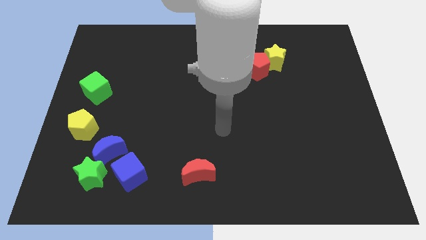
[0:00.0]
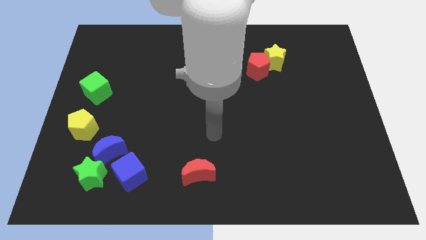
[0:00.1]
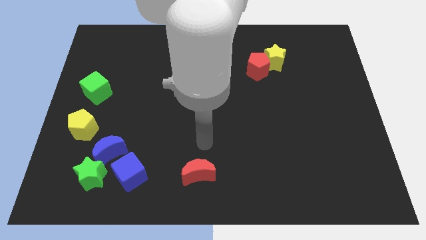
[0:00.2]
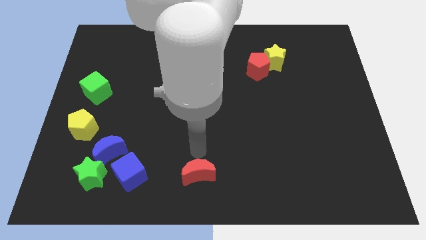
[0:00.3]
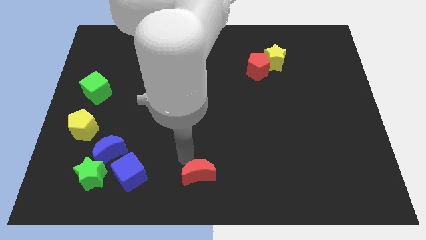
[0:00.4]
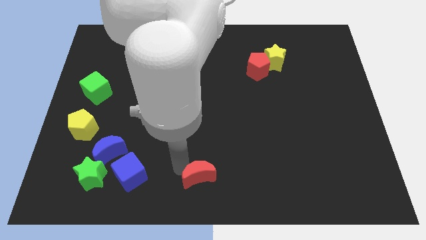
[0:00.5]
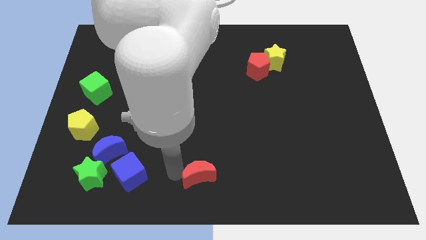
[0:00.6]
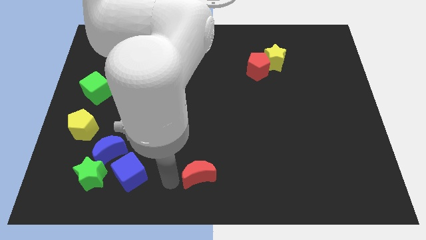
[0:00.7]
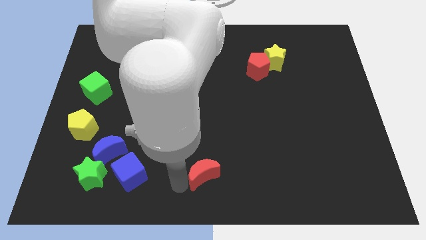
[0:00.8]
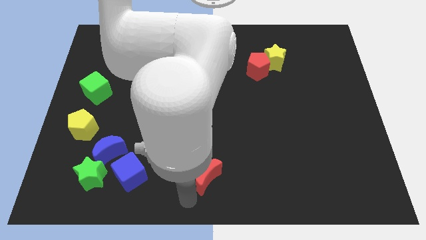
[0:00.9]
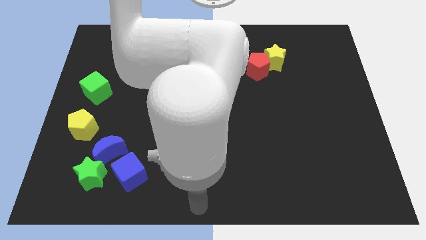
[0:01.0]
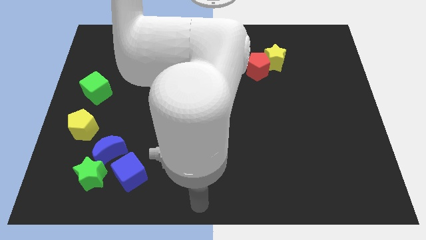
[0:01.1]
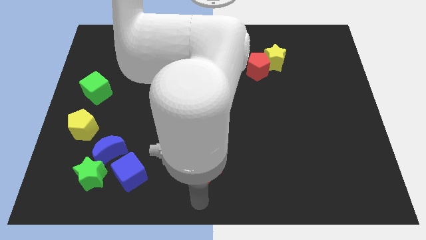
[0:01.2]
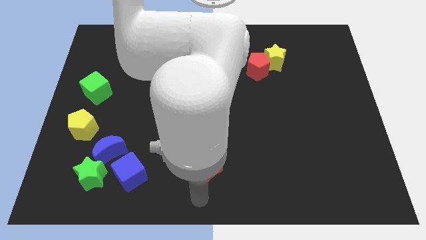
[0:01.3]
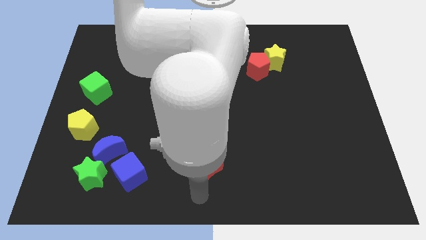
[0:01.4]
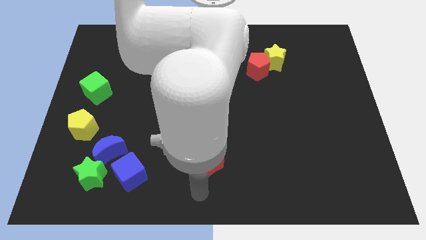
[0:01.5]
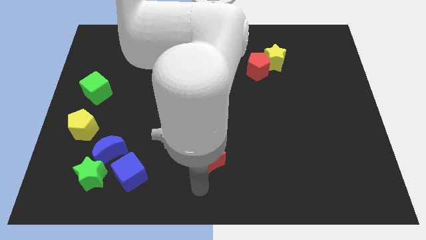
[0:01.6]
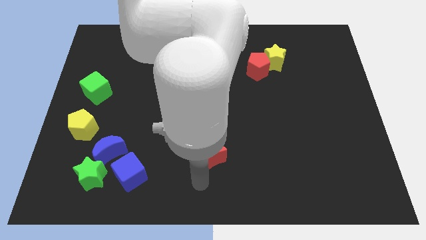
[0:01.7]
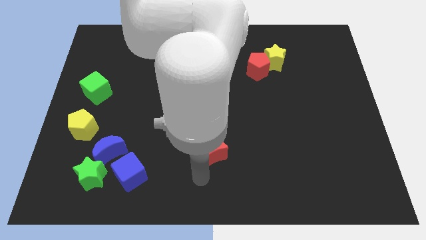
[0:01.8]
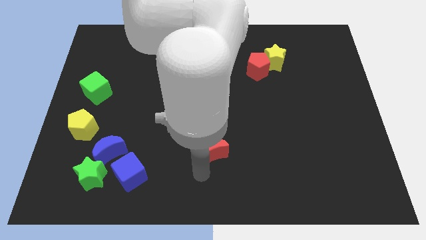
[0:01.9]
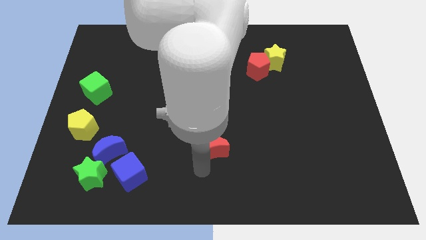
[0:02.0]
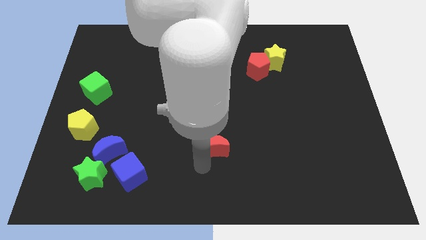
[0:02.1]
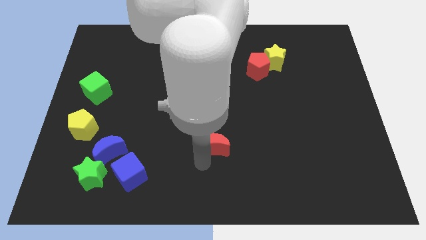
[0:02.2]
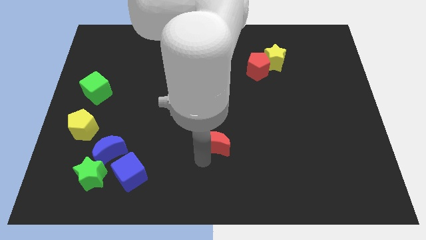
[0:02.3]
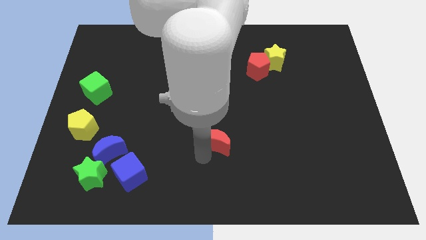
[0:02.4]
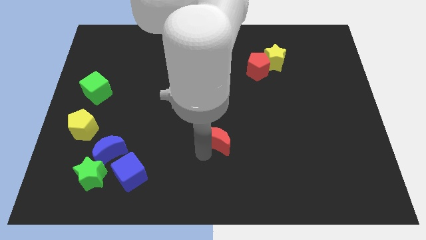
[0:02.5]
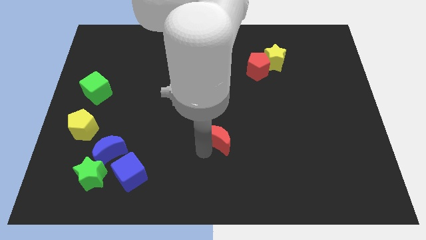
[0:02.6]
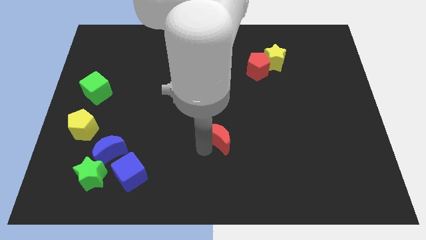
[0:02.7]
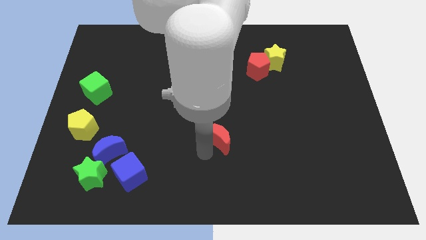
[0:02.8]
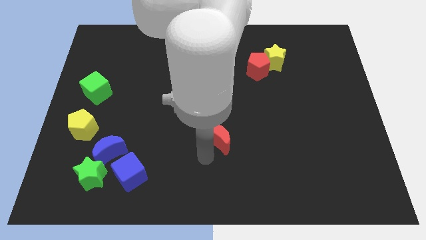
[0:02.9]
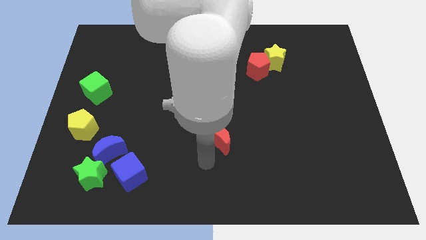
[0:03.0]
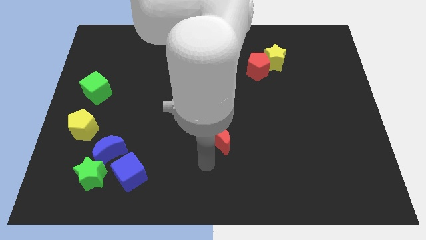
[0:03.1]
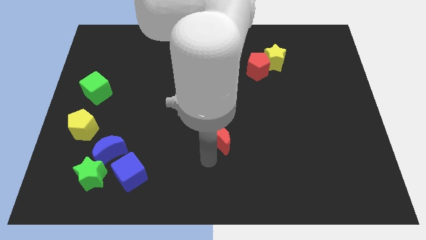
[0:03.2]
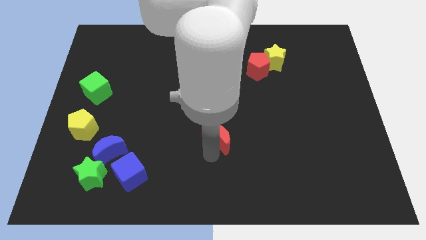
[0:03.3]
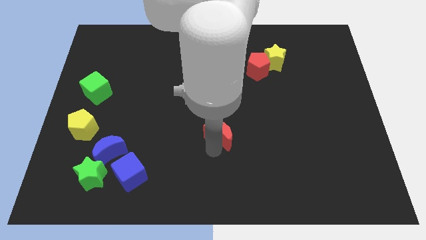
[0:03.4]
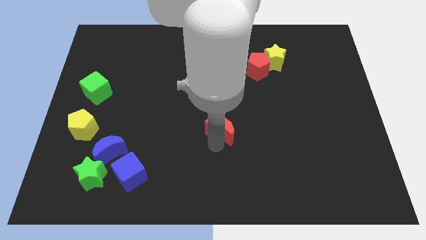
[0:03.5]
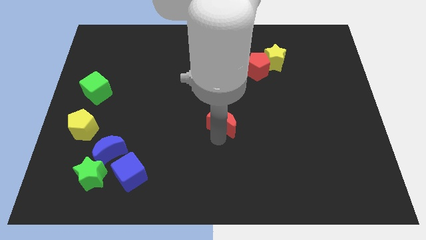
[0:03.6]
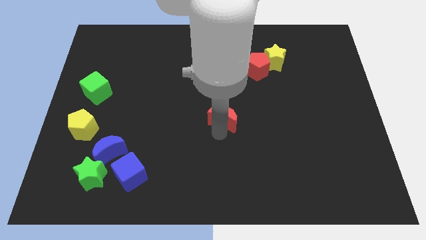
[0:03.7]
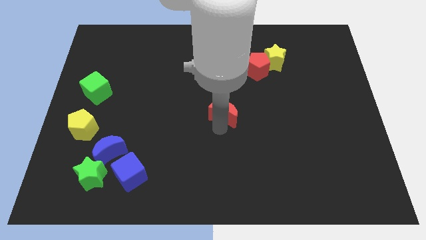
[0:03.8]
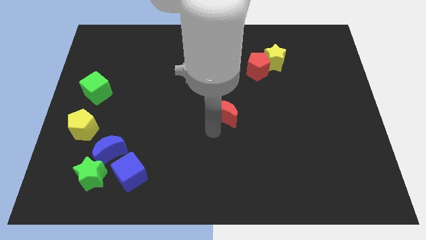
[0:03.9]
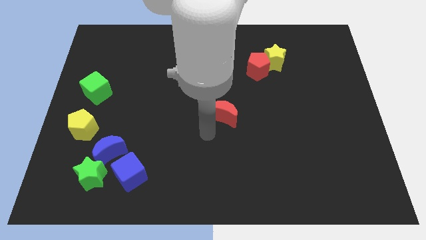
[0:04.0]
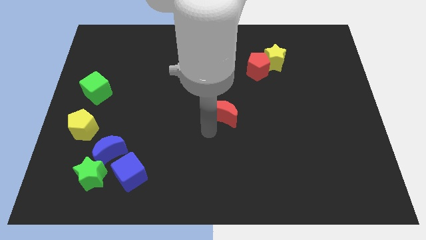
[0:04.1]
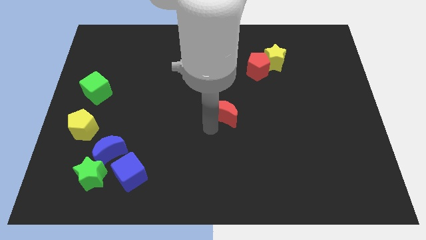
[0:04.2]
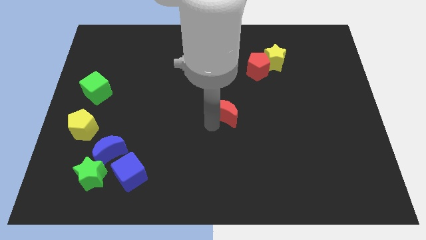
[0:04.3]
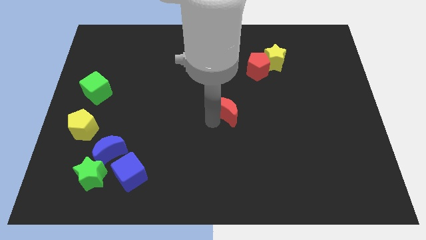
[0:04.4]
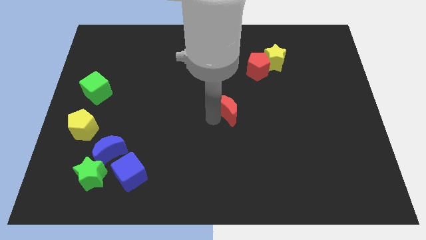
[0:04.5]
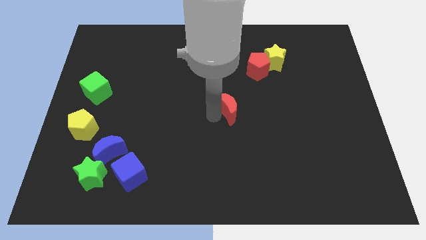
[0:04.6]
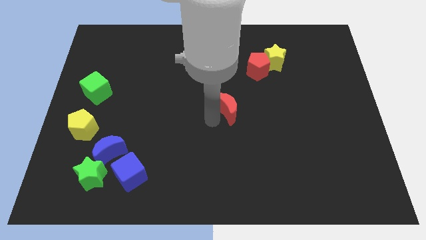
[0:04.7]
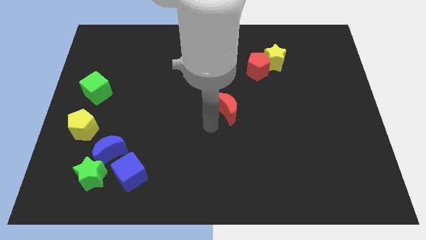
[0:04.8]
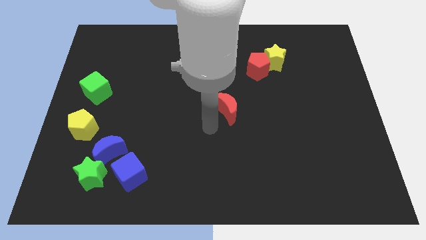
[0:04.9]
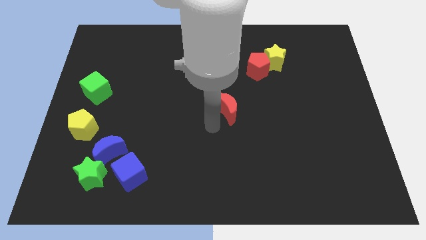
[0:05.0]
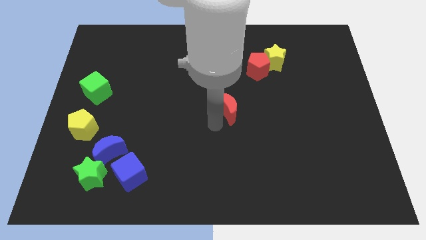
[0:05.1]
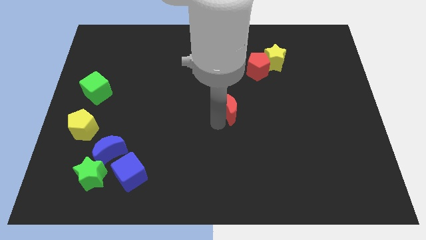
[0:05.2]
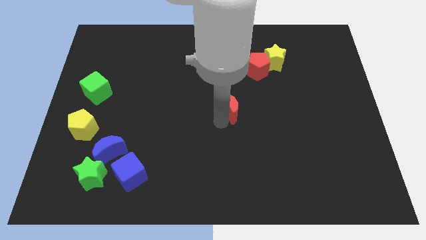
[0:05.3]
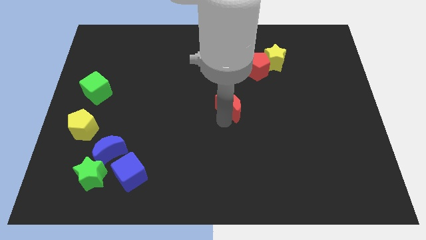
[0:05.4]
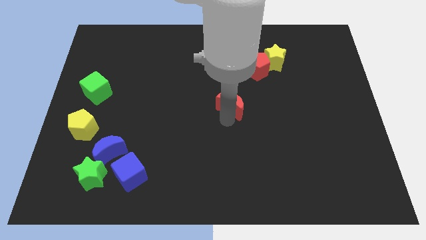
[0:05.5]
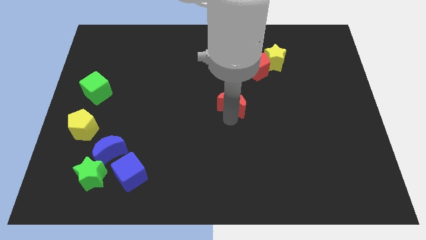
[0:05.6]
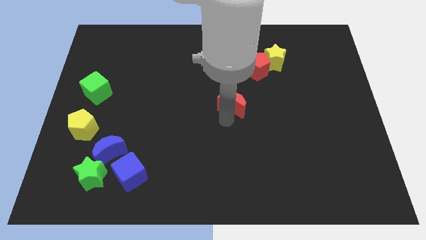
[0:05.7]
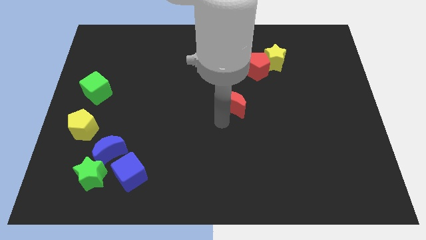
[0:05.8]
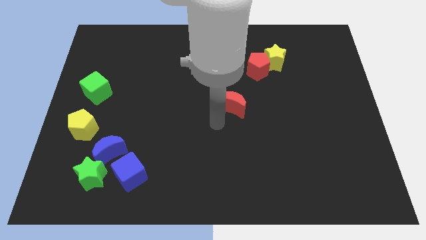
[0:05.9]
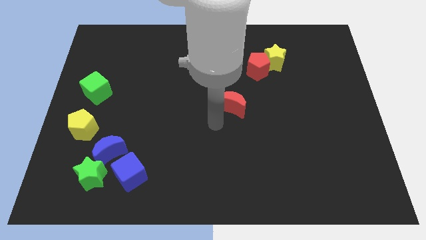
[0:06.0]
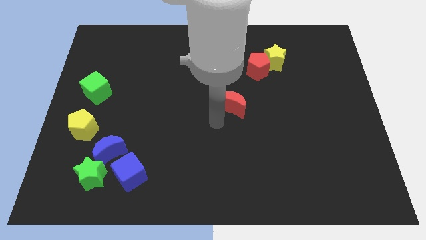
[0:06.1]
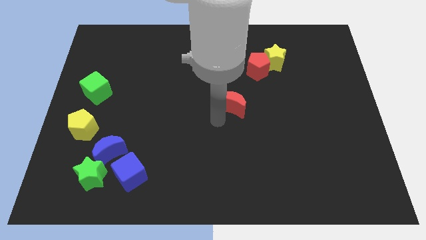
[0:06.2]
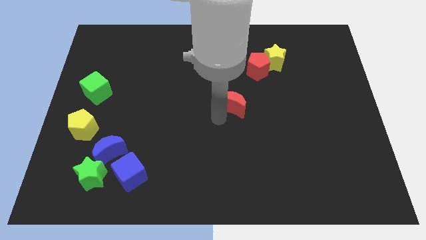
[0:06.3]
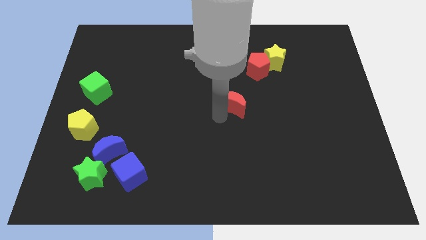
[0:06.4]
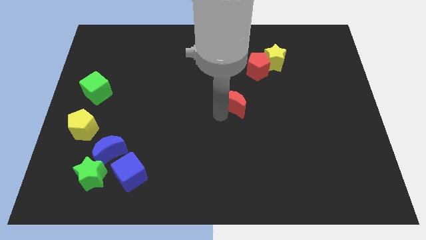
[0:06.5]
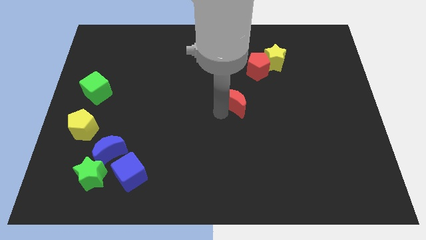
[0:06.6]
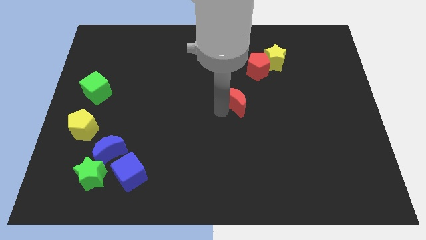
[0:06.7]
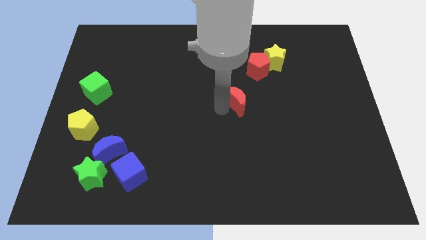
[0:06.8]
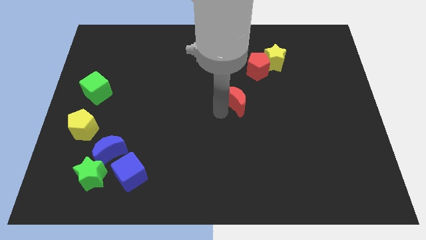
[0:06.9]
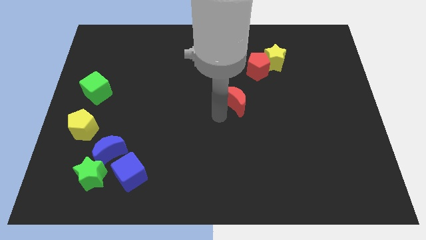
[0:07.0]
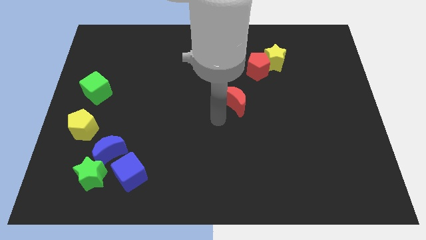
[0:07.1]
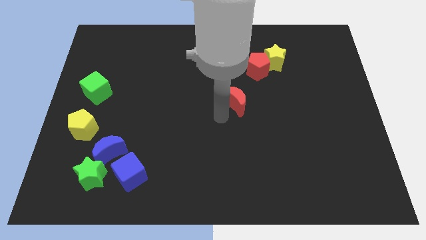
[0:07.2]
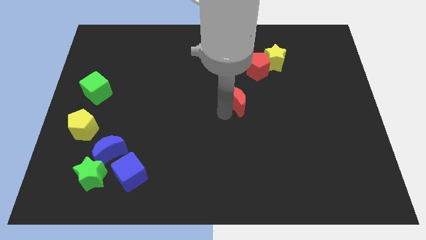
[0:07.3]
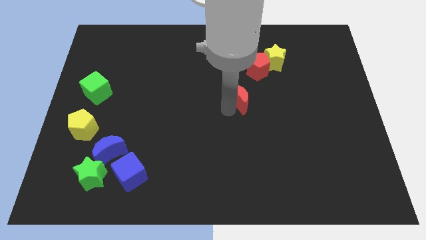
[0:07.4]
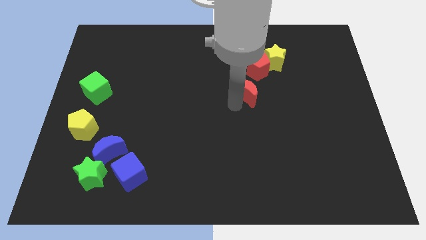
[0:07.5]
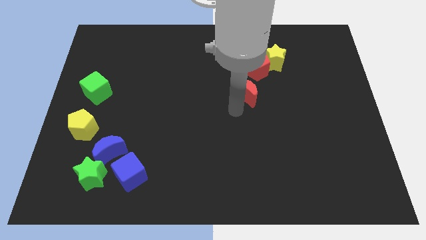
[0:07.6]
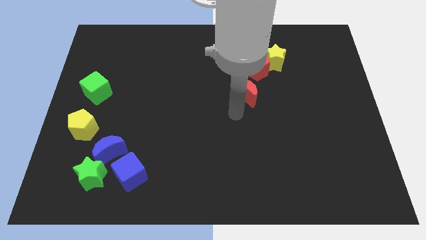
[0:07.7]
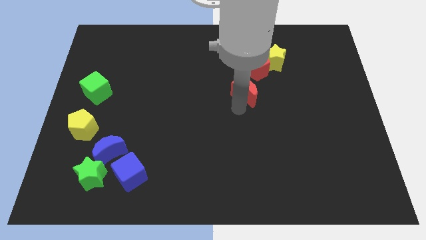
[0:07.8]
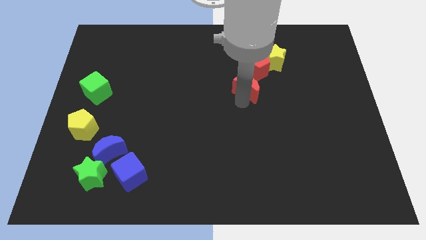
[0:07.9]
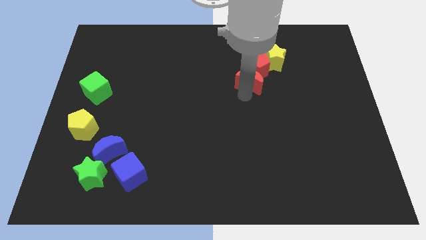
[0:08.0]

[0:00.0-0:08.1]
push the red moon close to the red pentagon

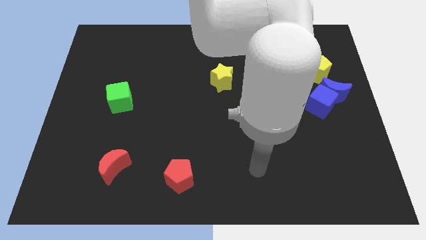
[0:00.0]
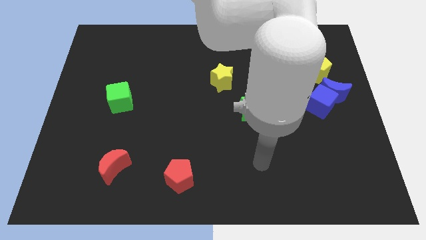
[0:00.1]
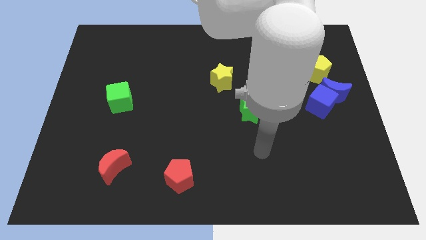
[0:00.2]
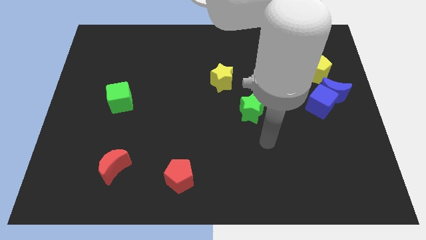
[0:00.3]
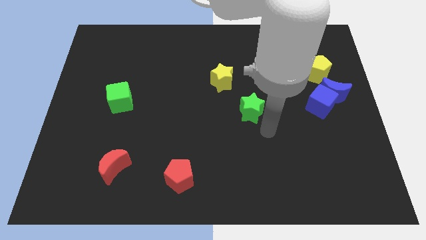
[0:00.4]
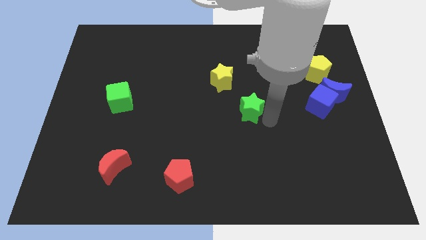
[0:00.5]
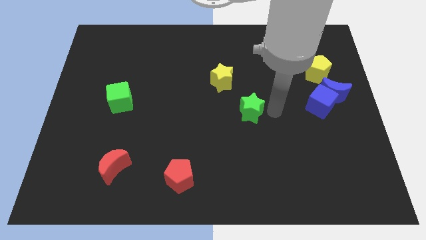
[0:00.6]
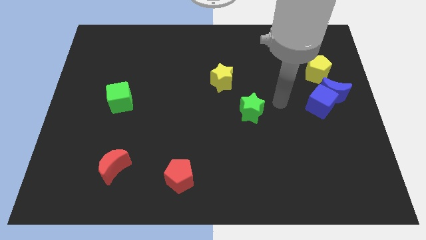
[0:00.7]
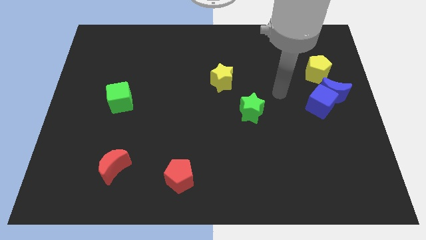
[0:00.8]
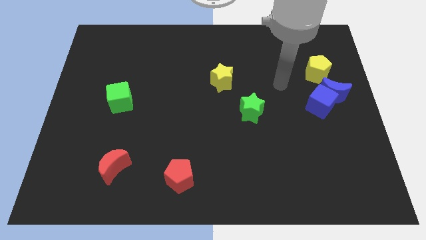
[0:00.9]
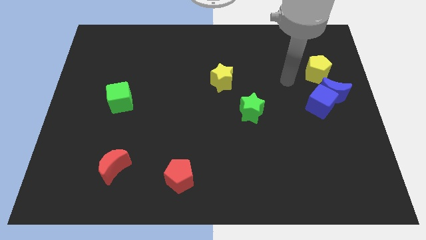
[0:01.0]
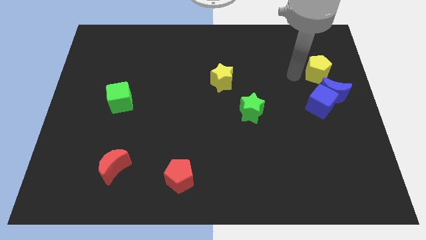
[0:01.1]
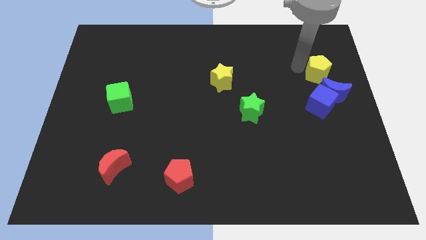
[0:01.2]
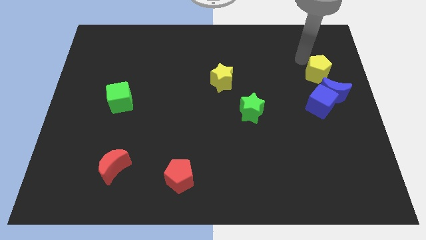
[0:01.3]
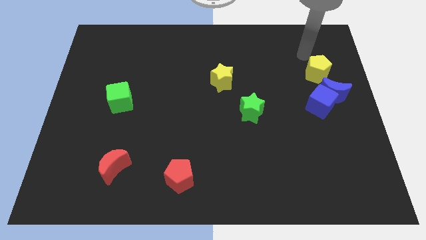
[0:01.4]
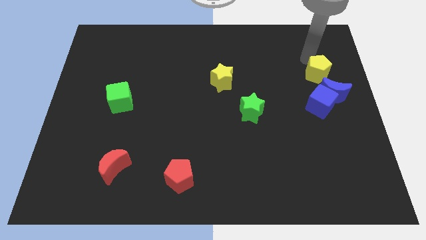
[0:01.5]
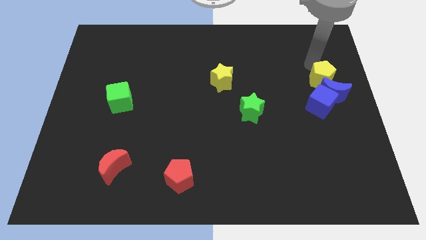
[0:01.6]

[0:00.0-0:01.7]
move the yellow pentagon towards the blue moon
